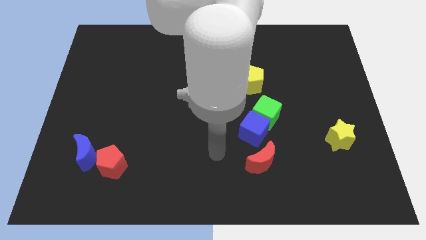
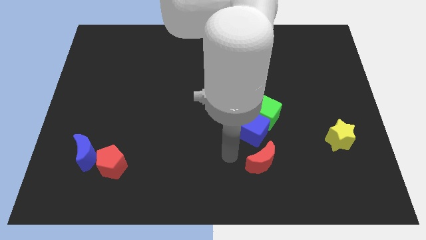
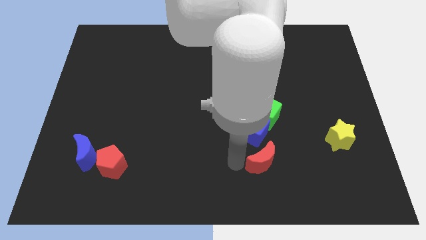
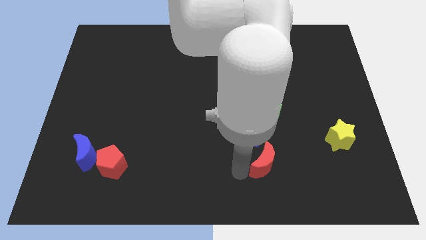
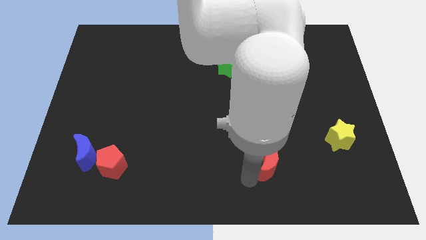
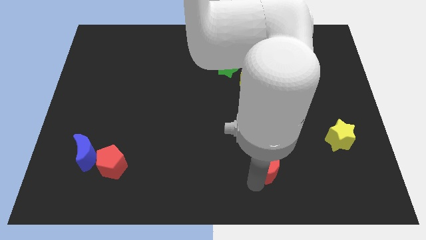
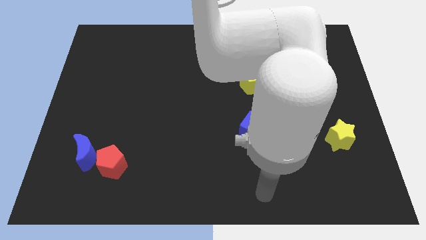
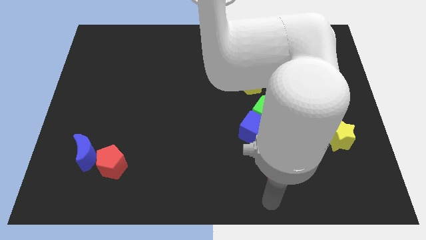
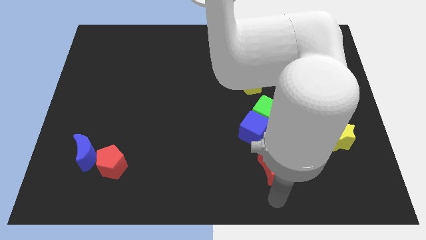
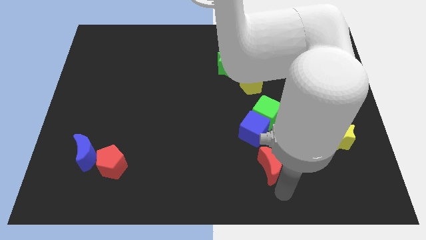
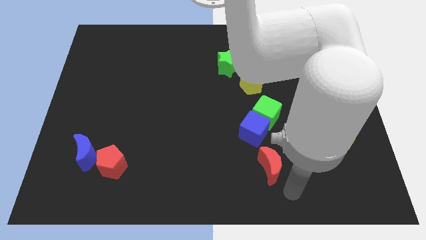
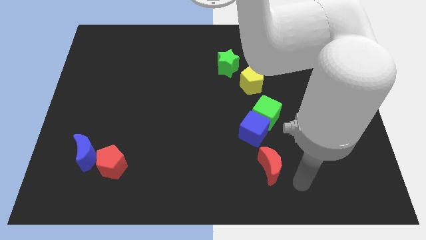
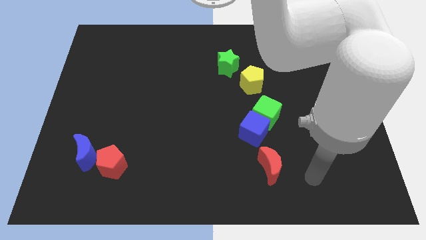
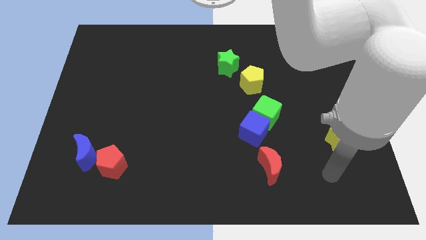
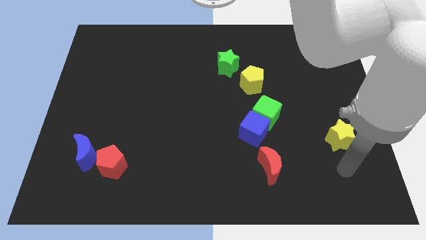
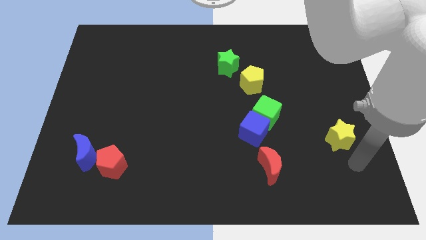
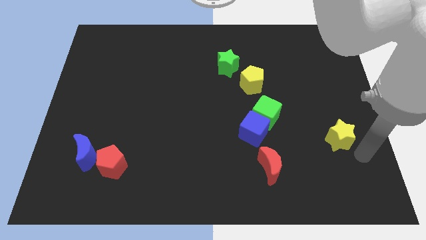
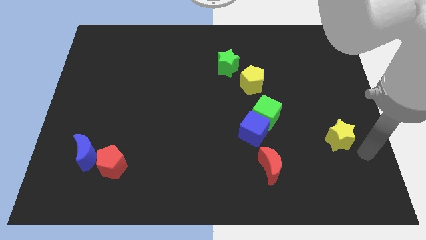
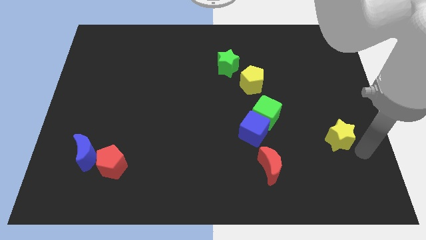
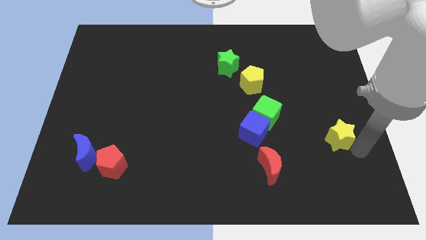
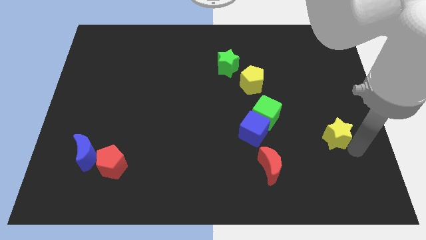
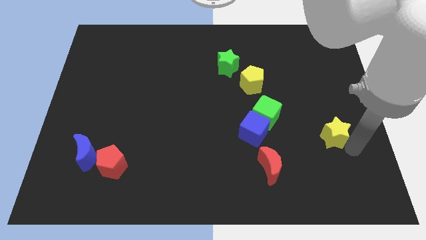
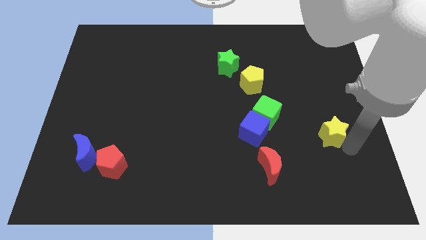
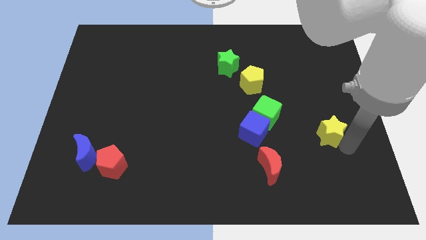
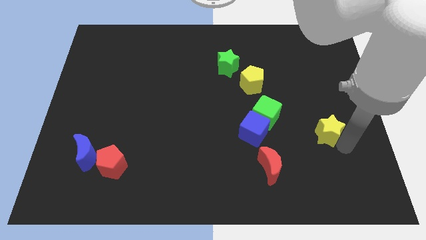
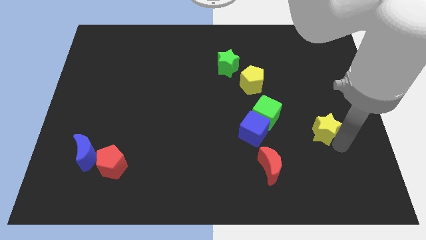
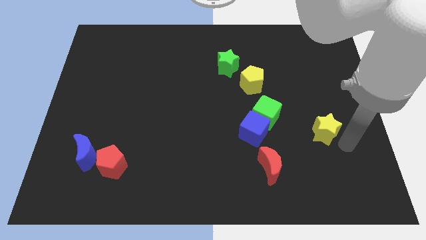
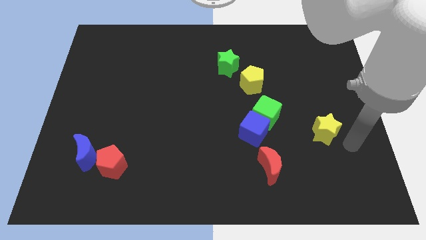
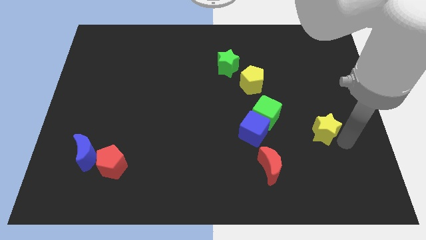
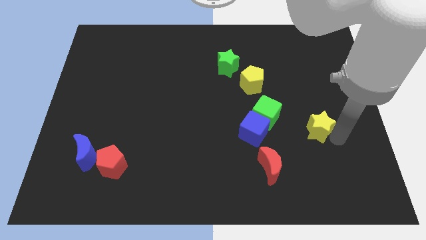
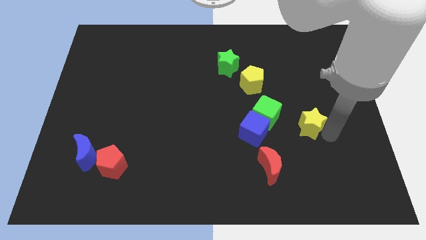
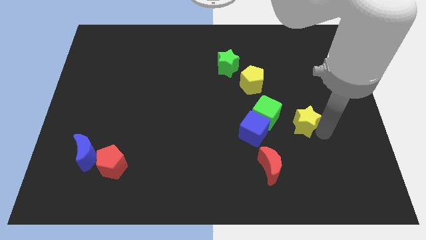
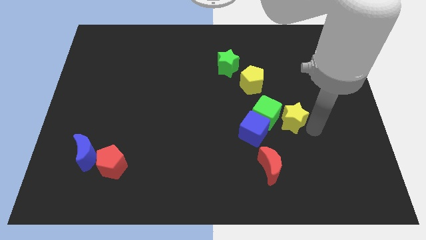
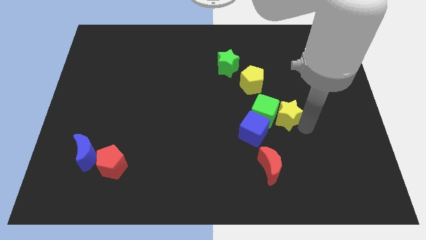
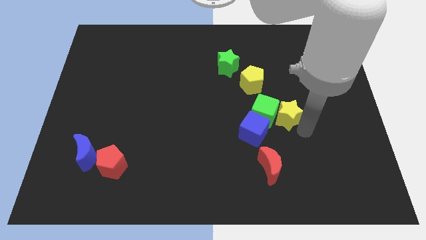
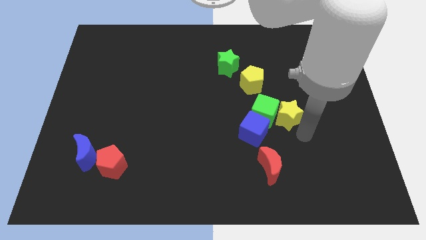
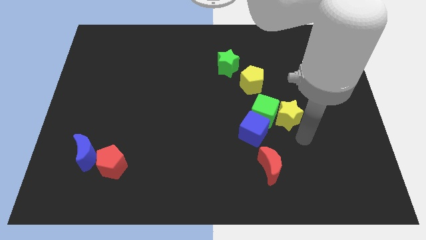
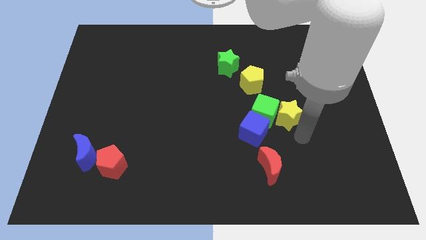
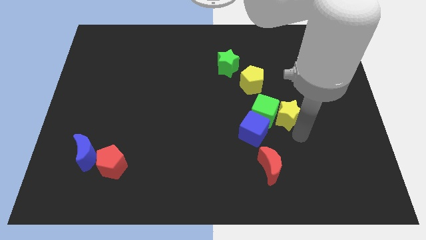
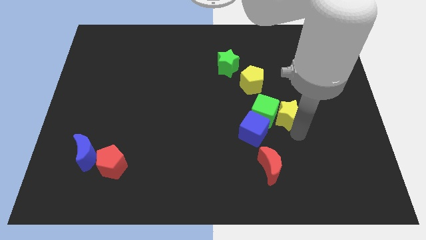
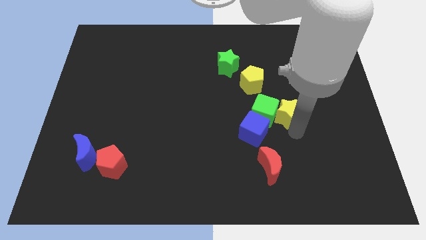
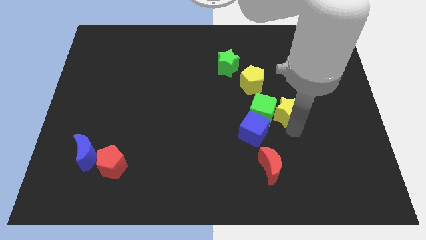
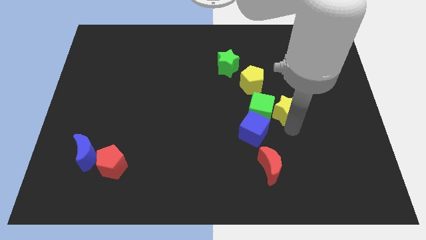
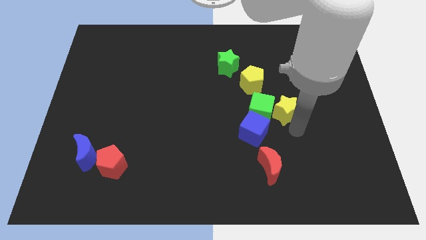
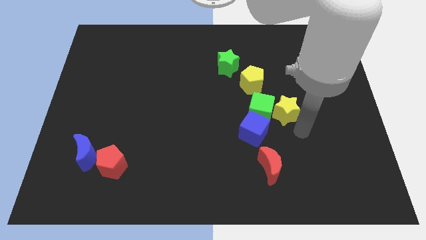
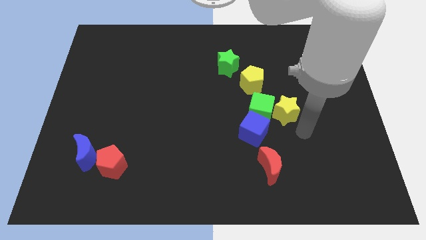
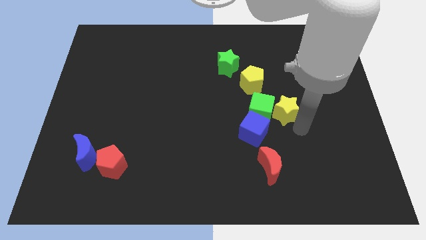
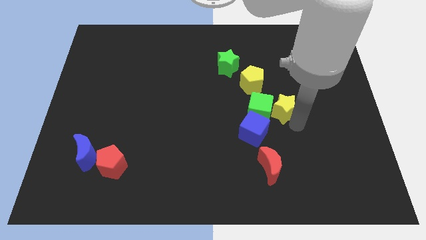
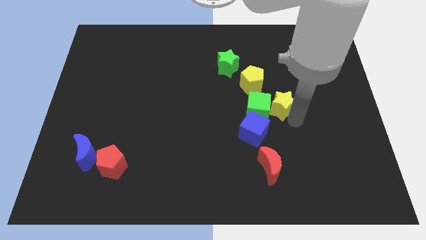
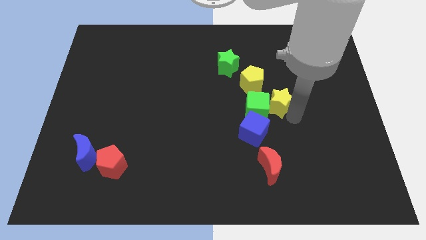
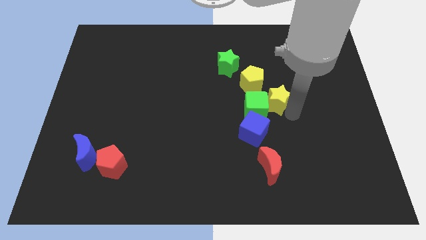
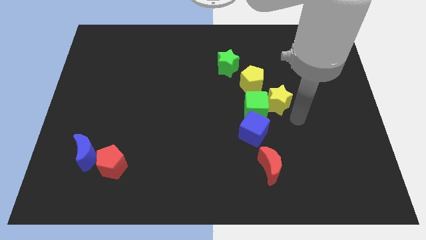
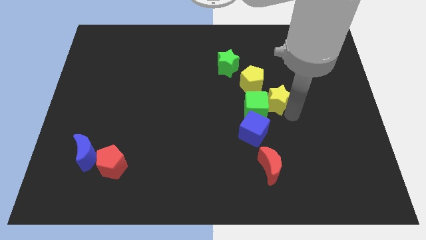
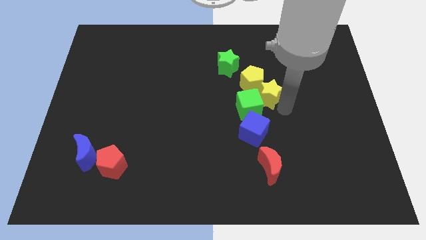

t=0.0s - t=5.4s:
push the yellow star towards the yellow pentagon

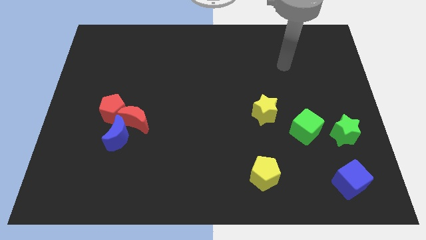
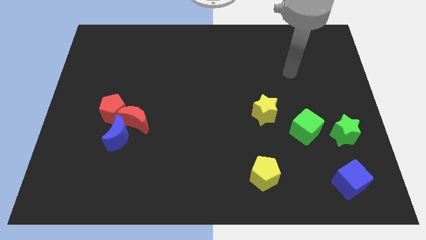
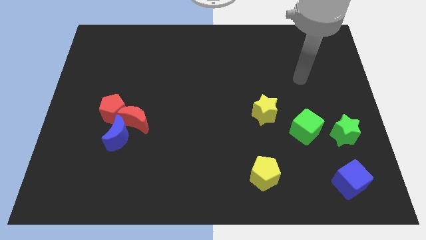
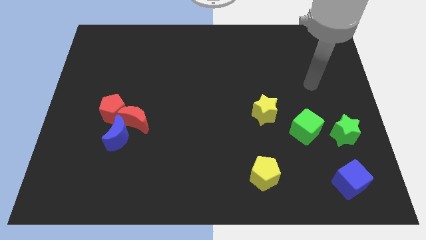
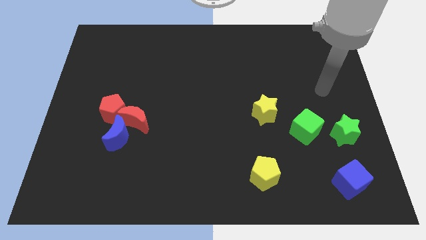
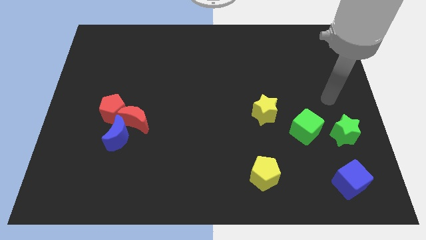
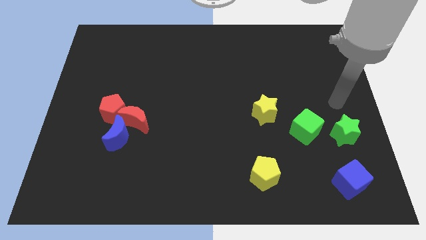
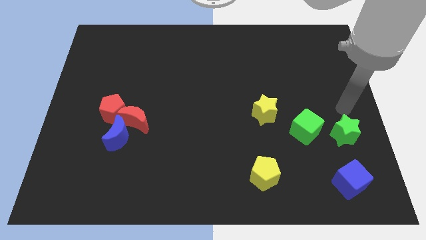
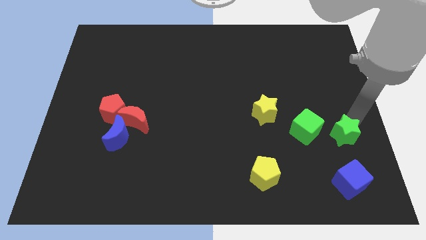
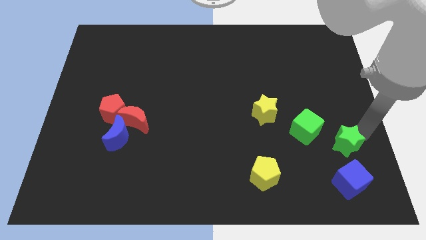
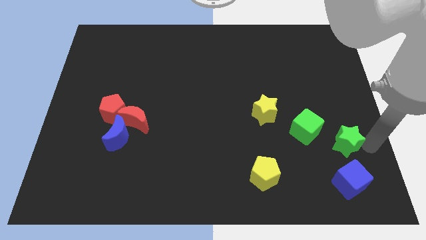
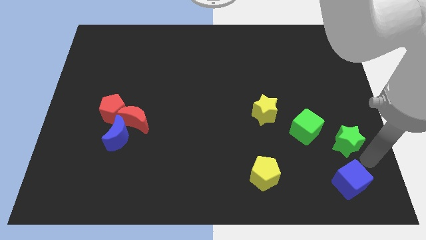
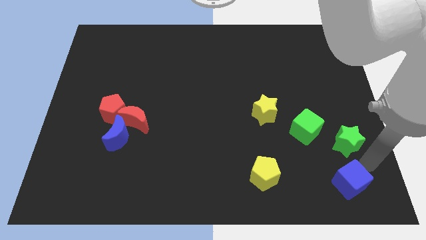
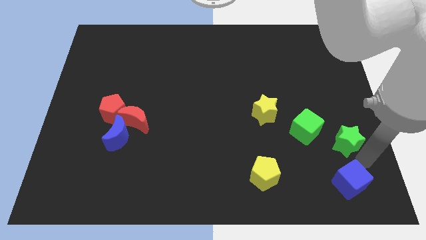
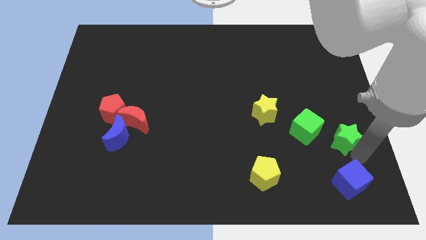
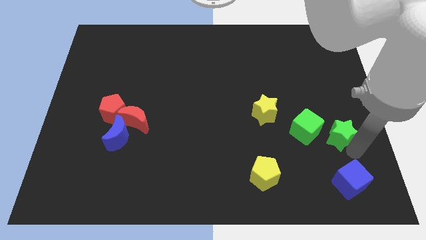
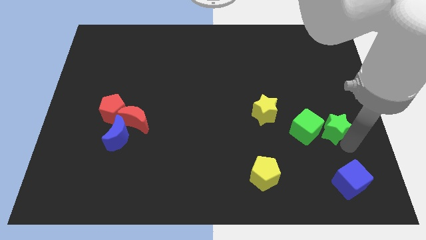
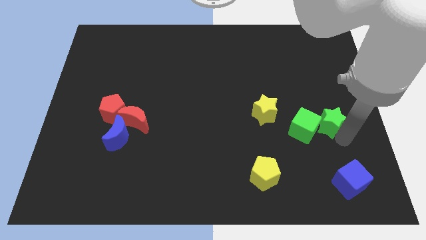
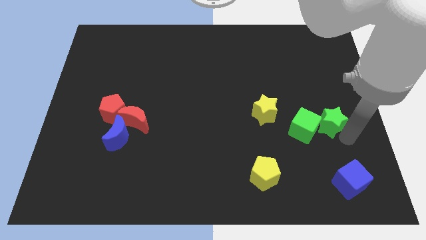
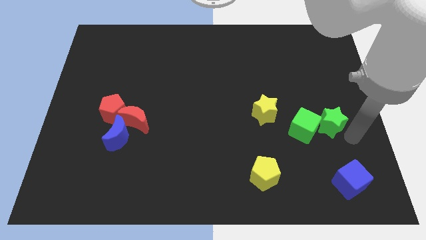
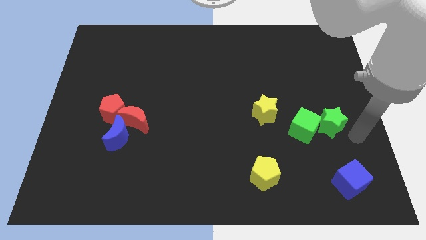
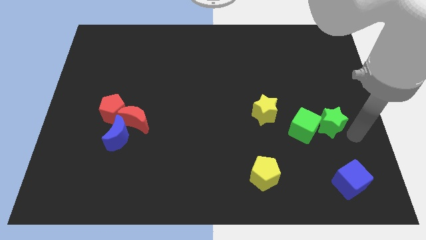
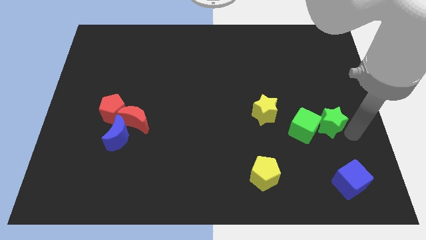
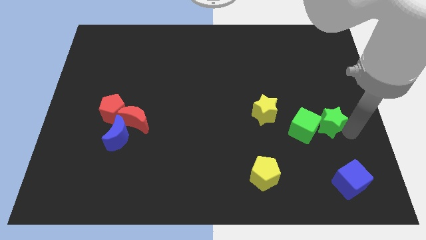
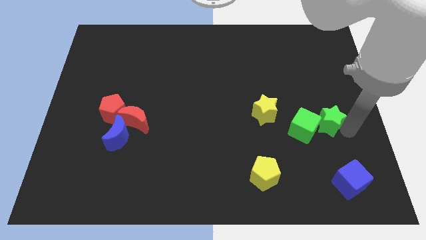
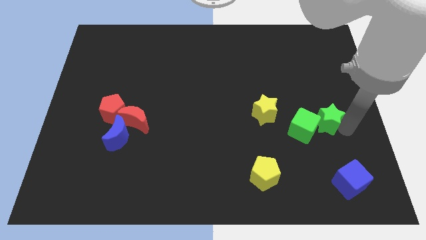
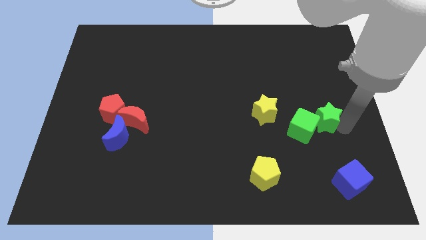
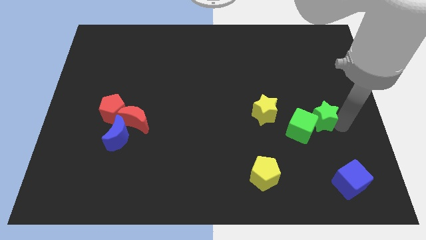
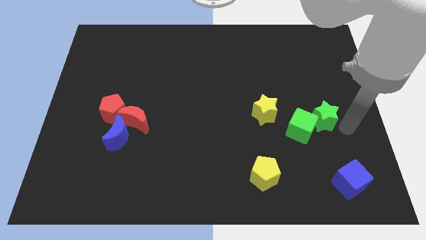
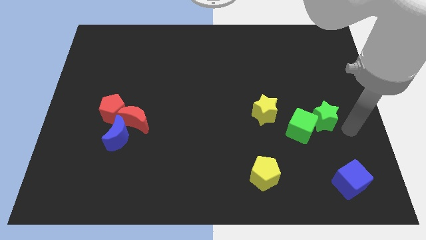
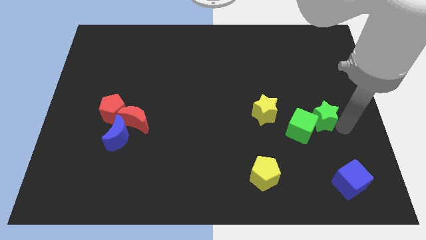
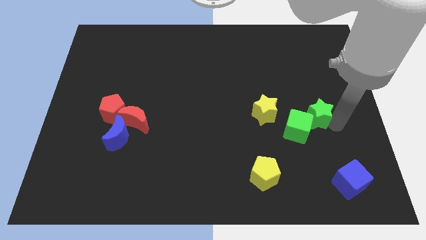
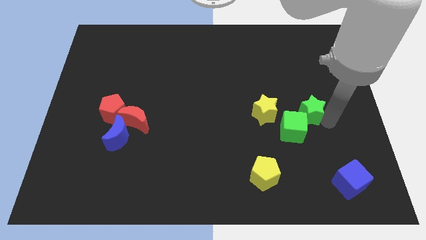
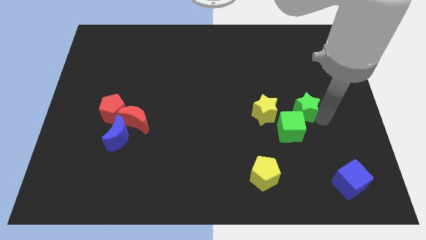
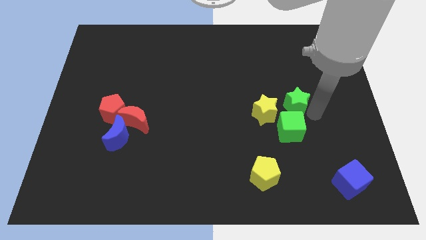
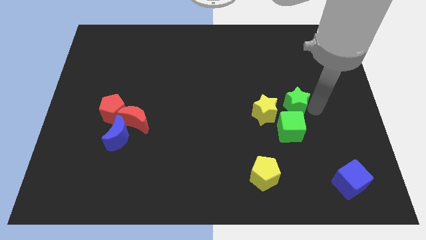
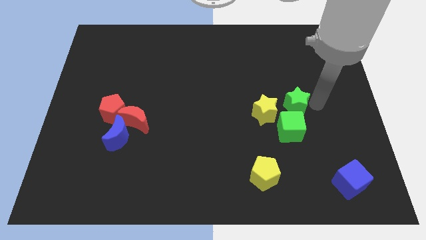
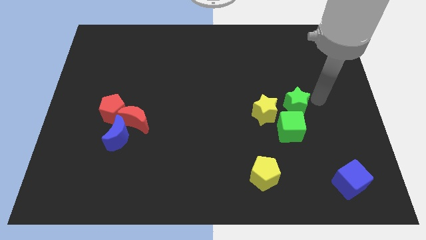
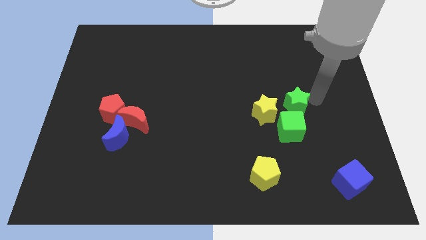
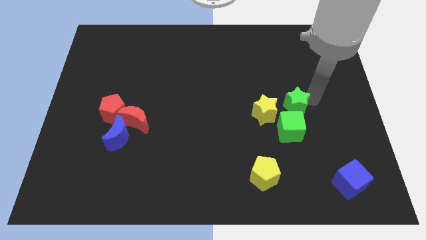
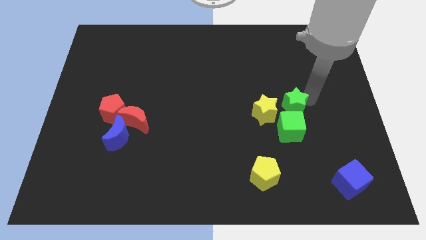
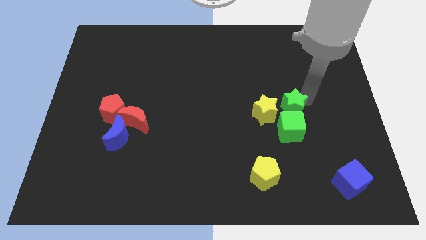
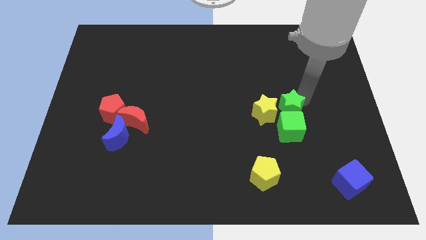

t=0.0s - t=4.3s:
push the green star close to the yellow star
